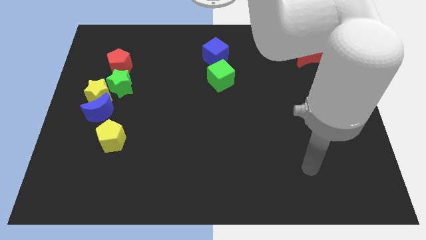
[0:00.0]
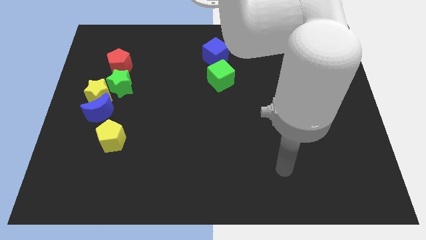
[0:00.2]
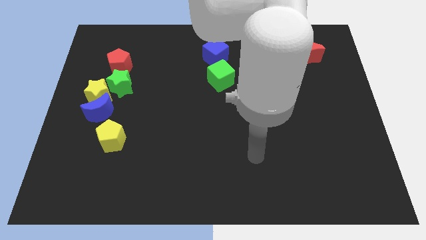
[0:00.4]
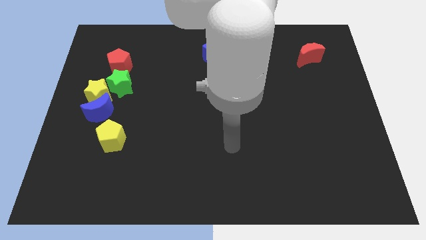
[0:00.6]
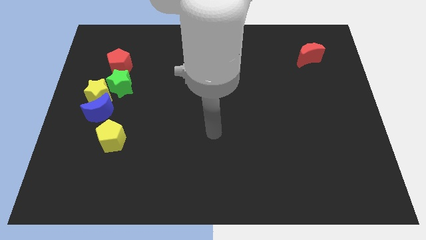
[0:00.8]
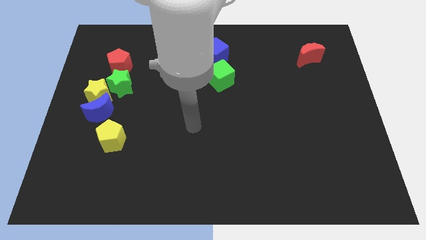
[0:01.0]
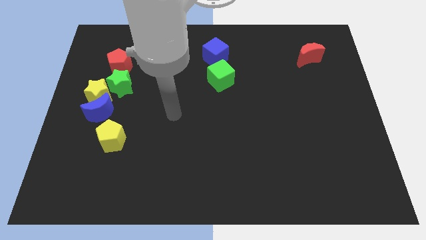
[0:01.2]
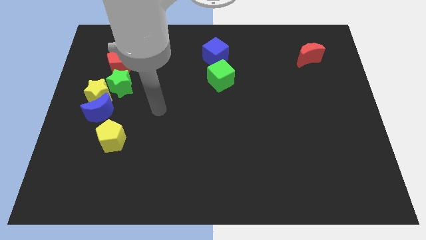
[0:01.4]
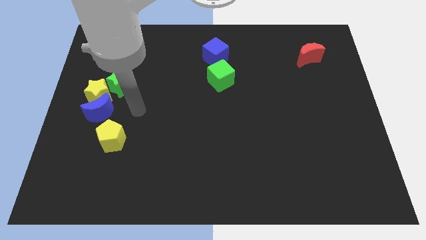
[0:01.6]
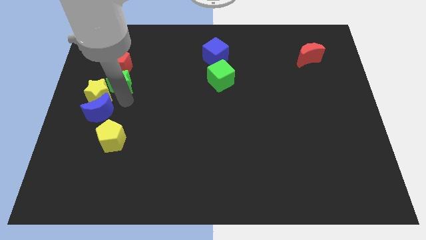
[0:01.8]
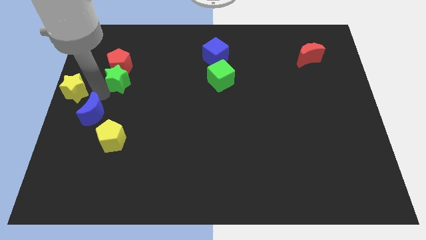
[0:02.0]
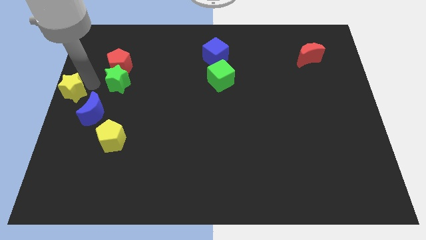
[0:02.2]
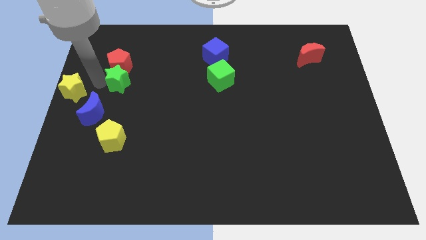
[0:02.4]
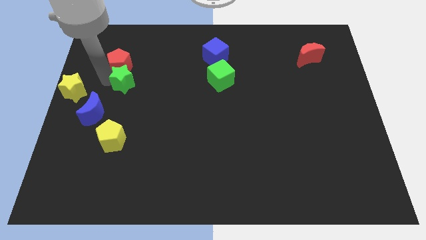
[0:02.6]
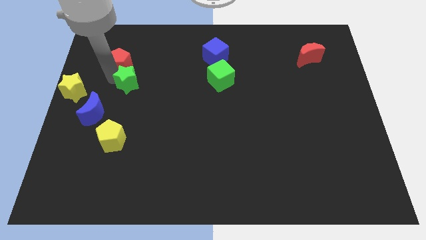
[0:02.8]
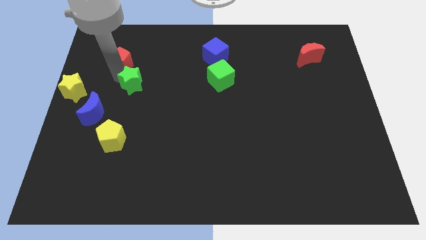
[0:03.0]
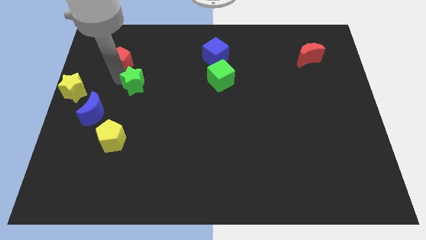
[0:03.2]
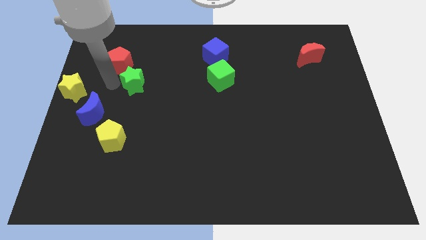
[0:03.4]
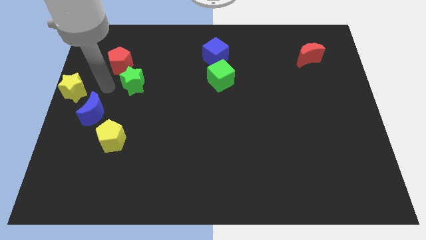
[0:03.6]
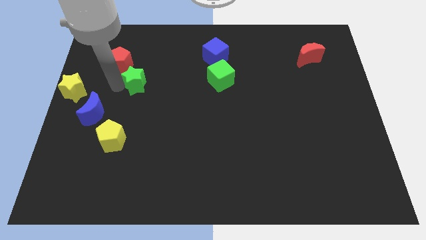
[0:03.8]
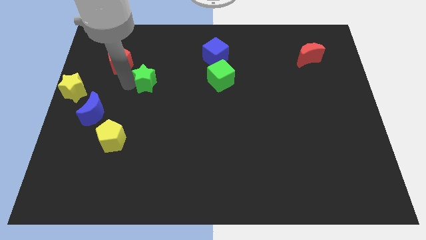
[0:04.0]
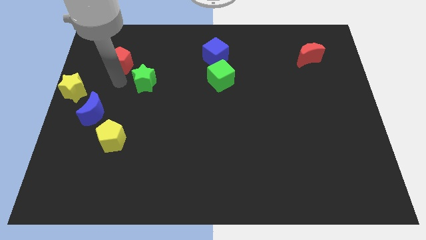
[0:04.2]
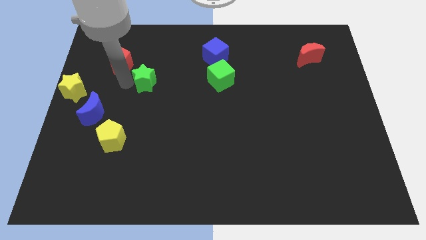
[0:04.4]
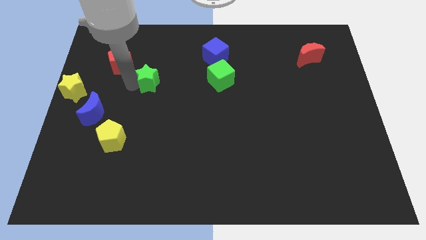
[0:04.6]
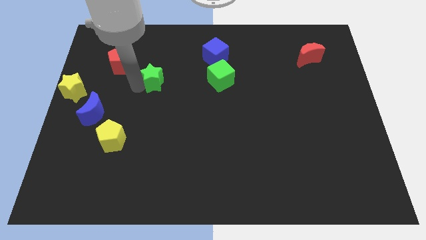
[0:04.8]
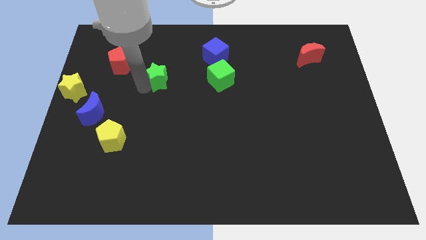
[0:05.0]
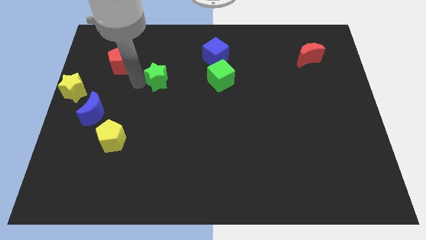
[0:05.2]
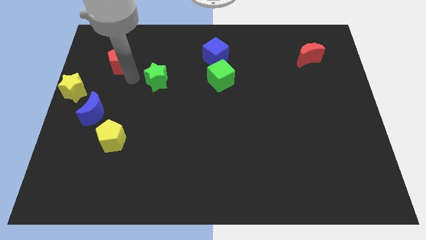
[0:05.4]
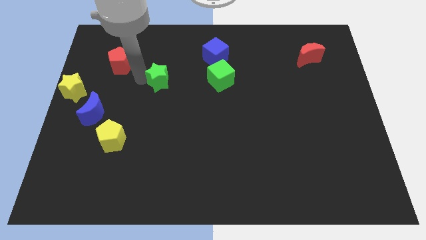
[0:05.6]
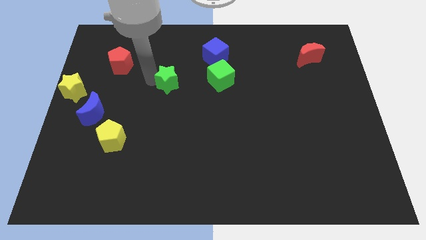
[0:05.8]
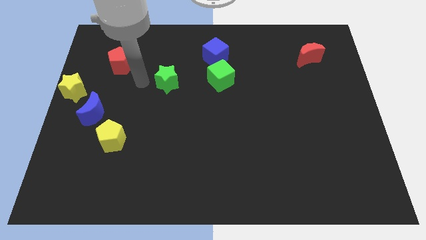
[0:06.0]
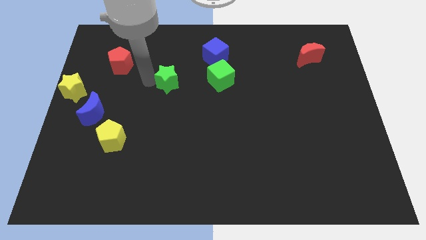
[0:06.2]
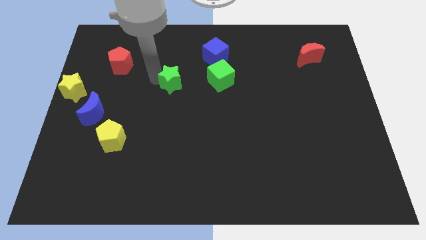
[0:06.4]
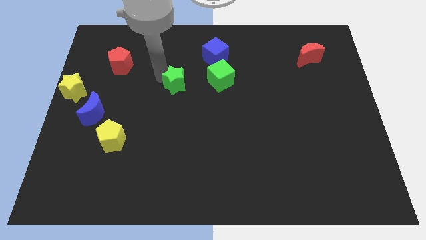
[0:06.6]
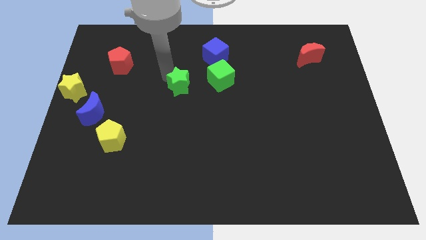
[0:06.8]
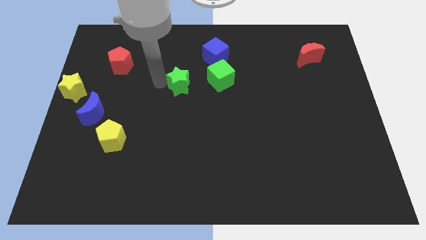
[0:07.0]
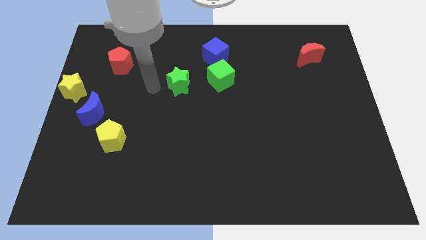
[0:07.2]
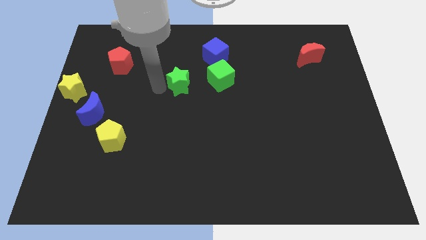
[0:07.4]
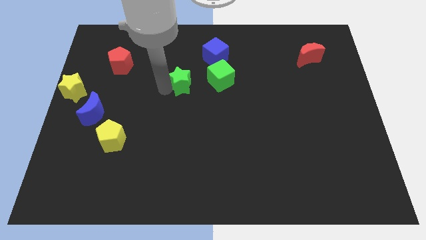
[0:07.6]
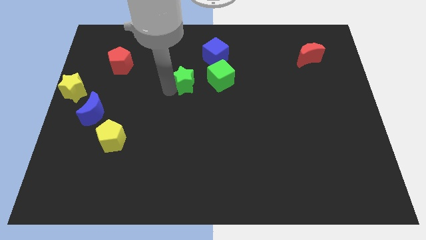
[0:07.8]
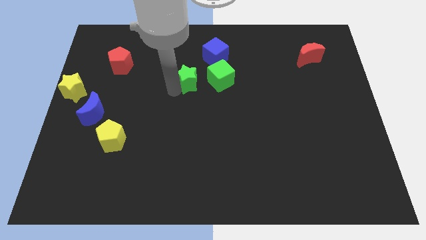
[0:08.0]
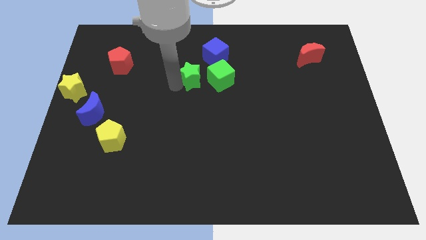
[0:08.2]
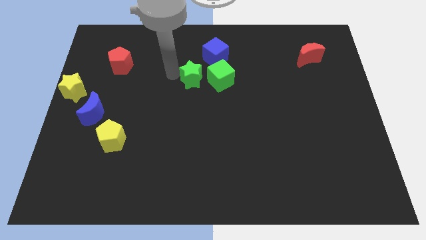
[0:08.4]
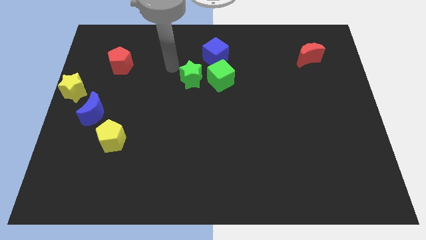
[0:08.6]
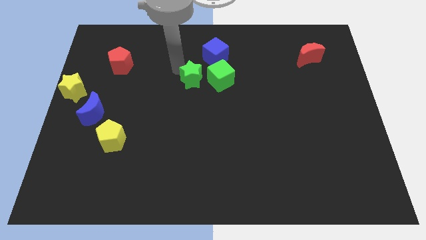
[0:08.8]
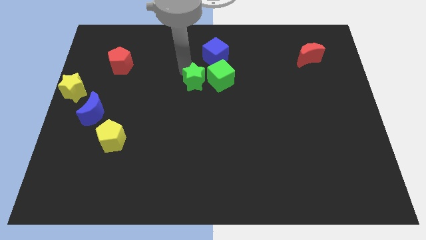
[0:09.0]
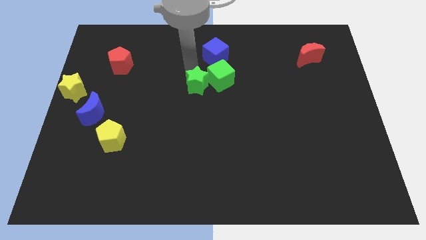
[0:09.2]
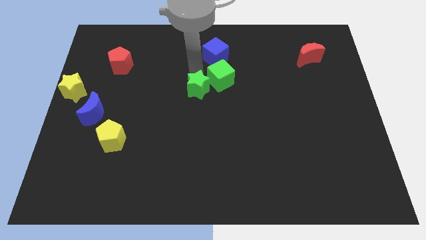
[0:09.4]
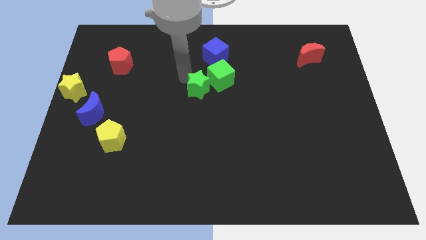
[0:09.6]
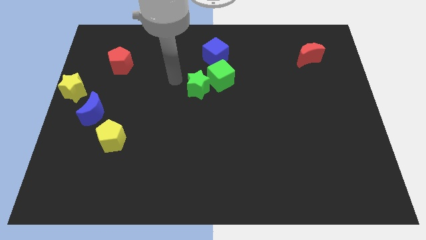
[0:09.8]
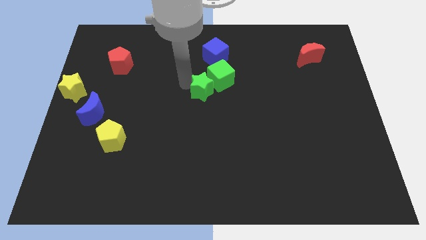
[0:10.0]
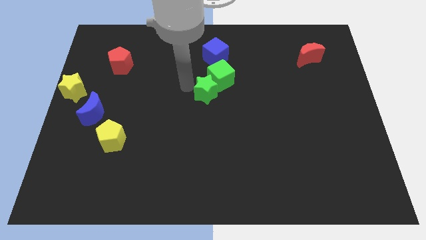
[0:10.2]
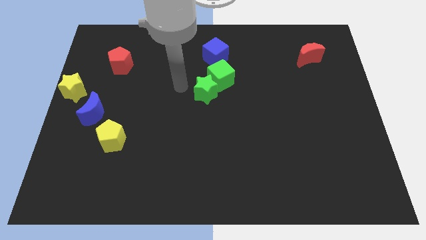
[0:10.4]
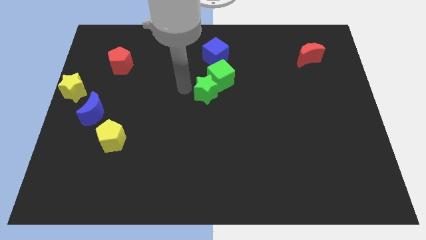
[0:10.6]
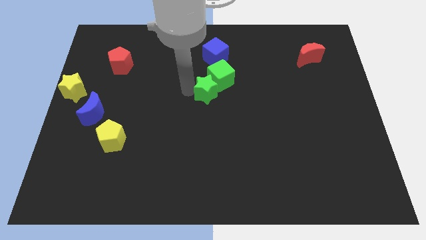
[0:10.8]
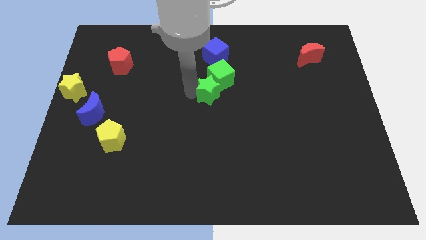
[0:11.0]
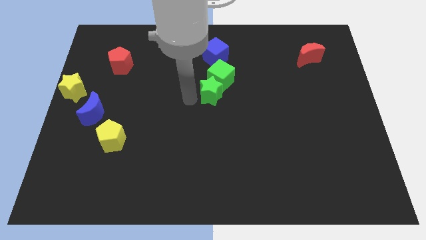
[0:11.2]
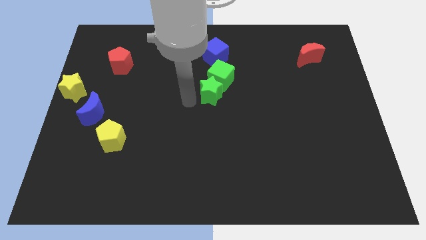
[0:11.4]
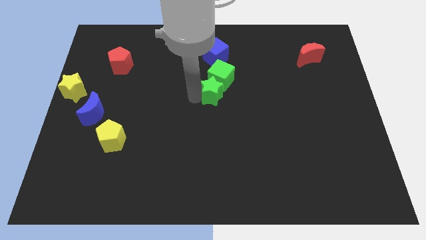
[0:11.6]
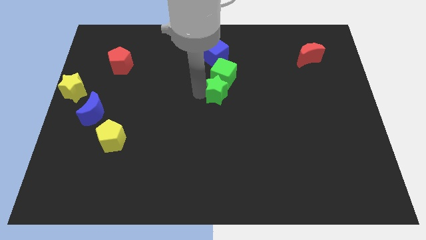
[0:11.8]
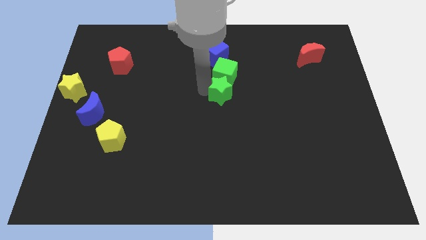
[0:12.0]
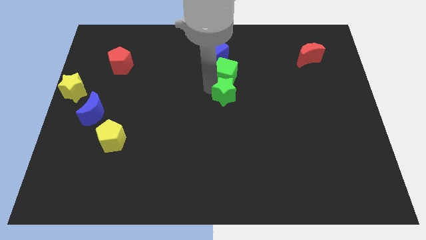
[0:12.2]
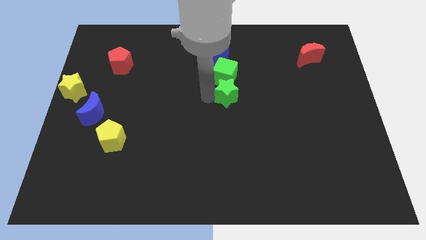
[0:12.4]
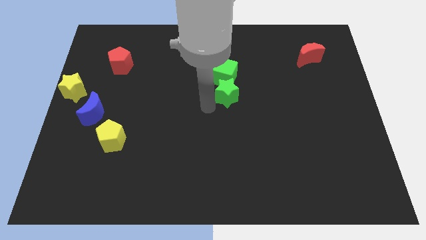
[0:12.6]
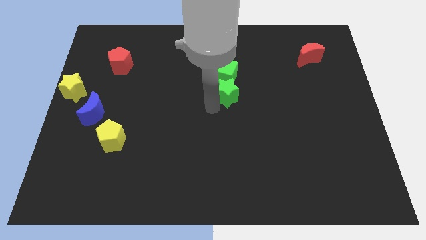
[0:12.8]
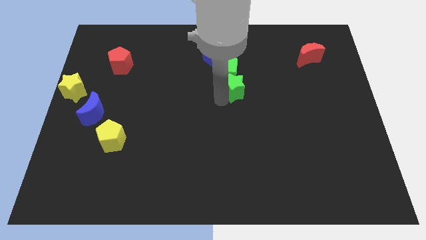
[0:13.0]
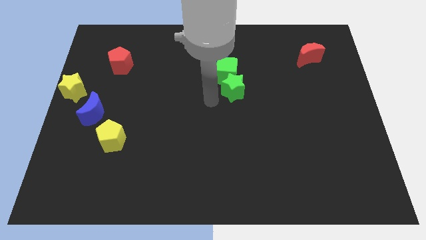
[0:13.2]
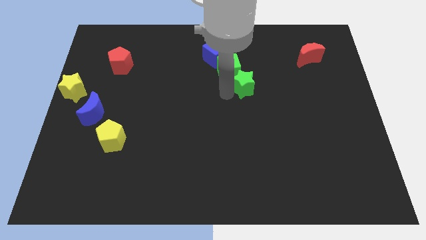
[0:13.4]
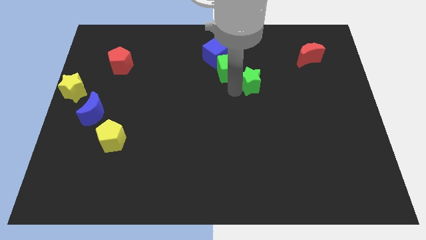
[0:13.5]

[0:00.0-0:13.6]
slide the green star to the right side of the green cube
